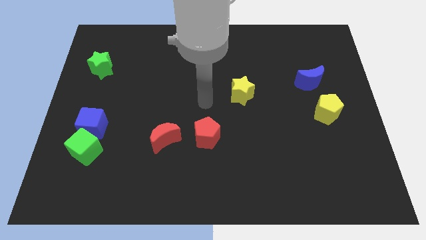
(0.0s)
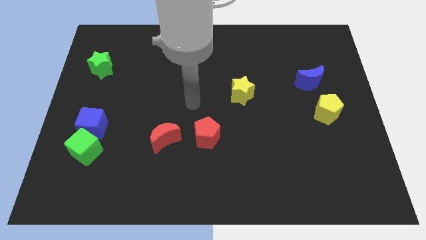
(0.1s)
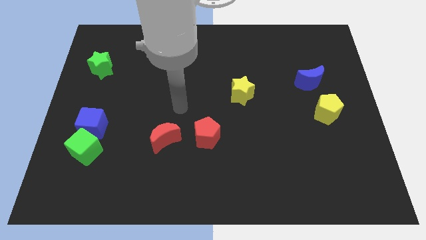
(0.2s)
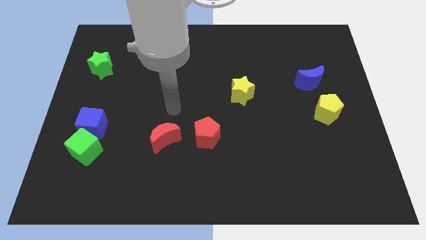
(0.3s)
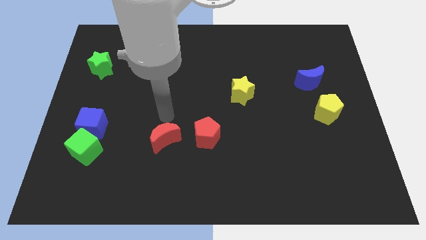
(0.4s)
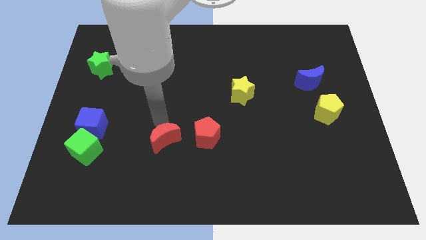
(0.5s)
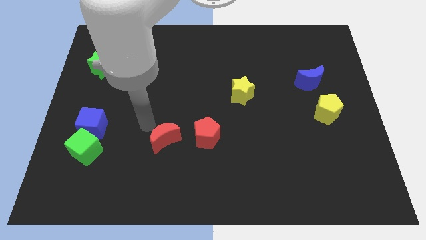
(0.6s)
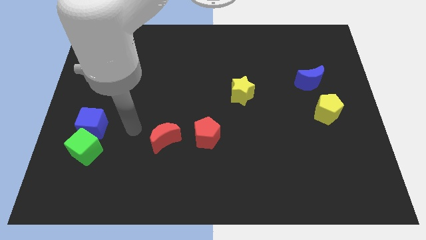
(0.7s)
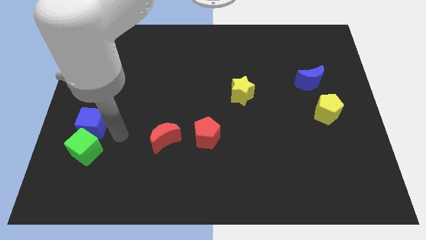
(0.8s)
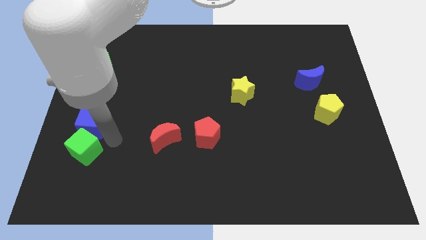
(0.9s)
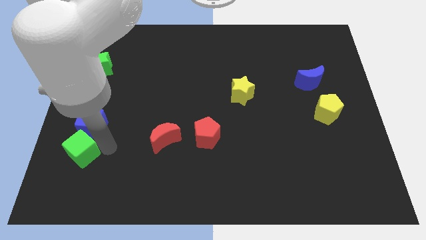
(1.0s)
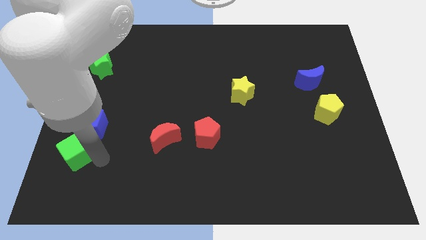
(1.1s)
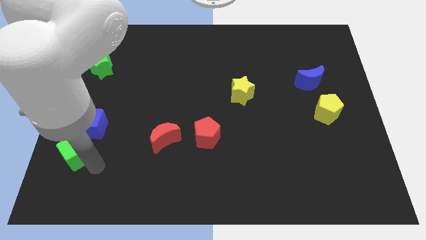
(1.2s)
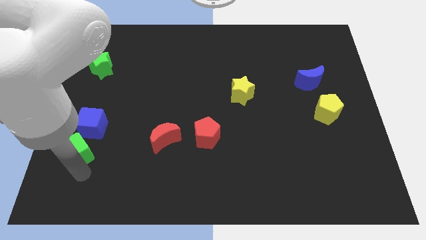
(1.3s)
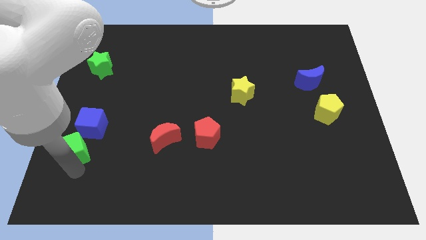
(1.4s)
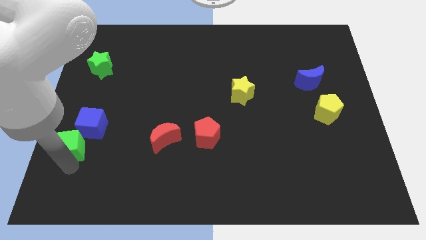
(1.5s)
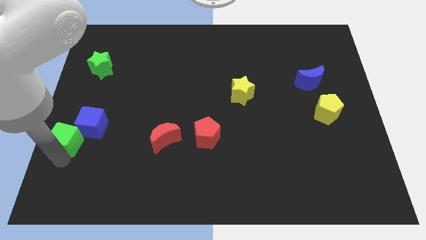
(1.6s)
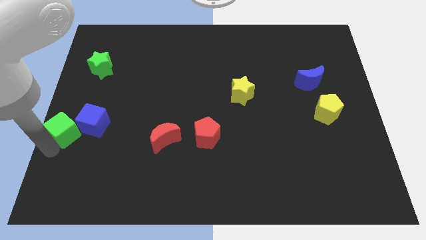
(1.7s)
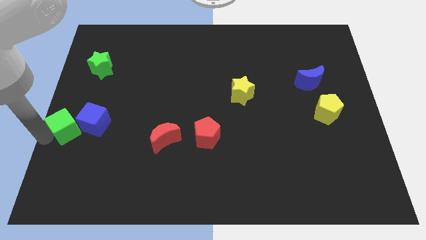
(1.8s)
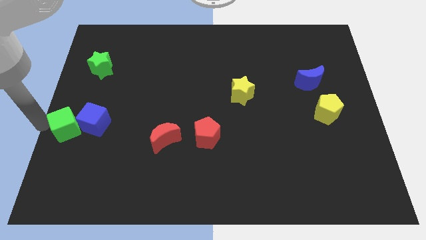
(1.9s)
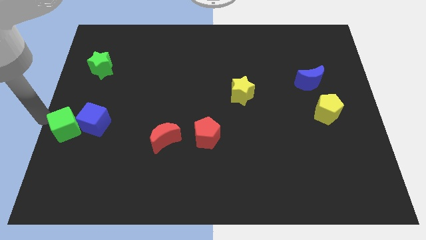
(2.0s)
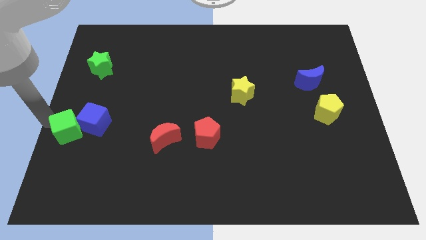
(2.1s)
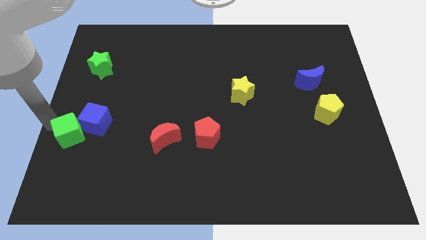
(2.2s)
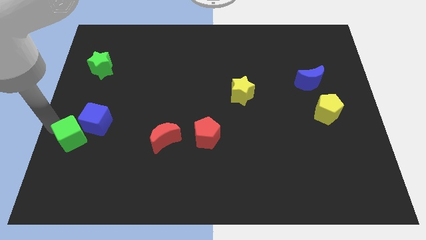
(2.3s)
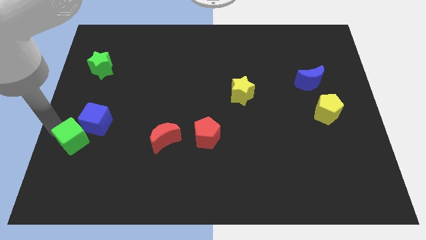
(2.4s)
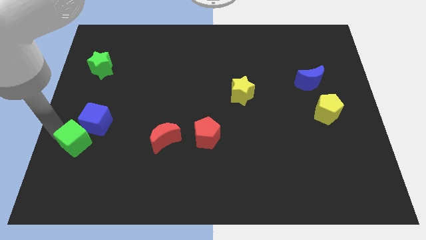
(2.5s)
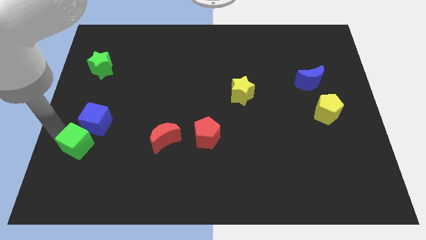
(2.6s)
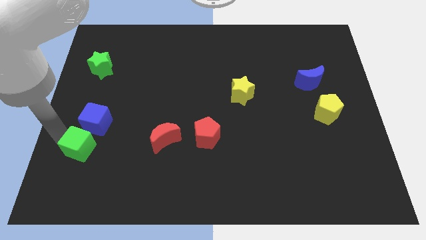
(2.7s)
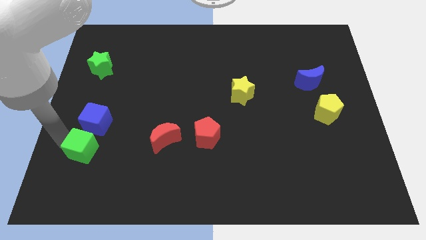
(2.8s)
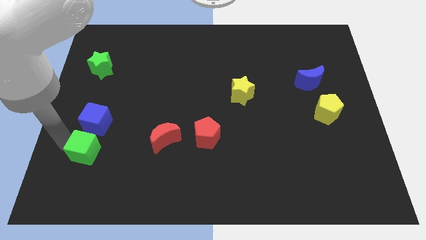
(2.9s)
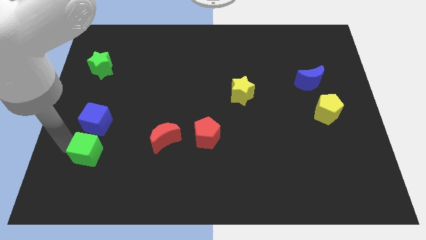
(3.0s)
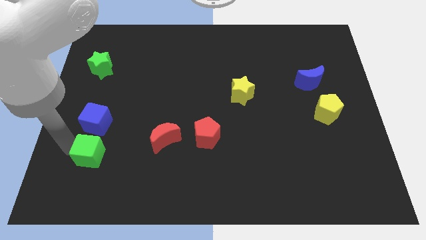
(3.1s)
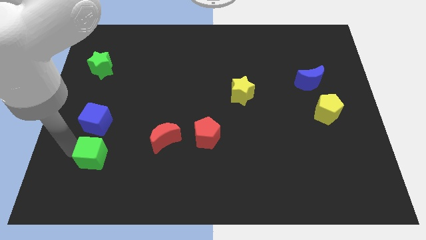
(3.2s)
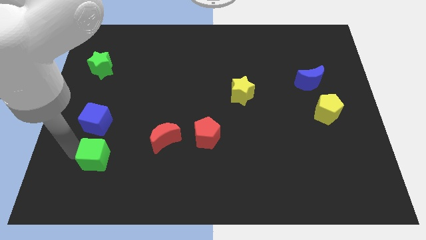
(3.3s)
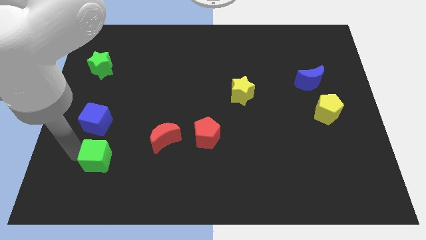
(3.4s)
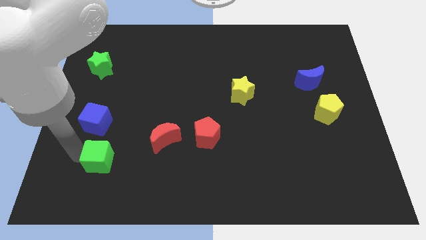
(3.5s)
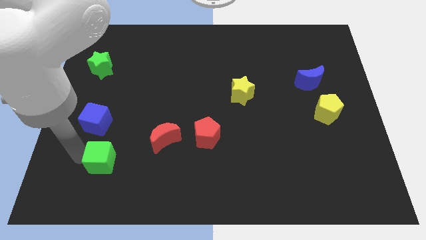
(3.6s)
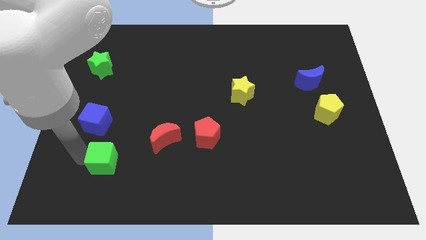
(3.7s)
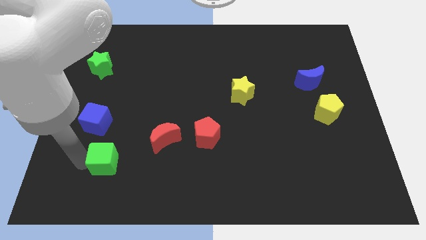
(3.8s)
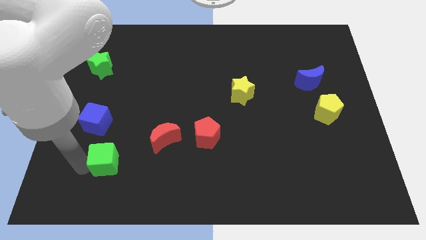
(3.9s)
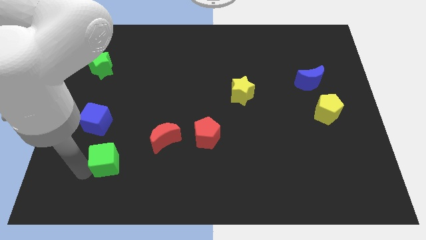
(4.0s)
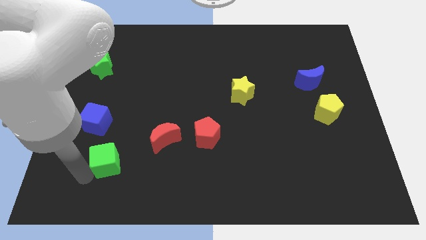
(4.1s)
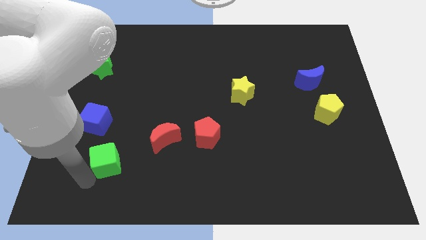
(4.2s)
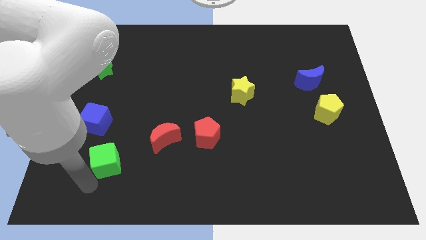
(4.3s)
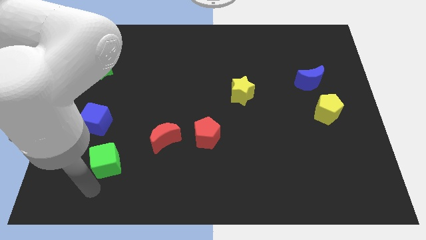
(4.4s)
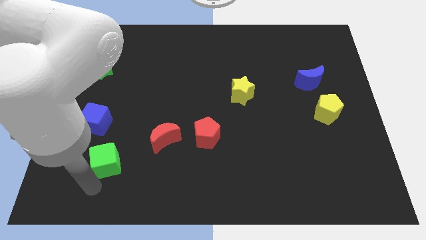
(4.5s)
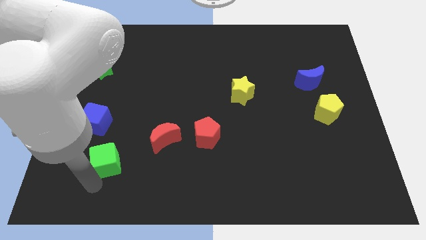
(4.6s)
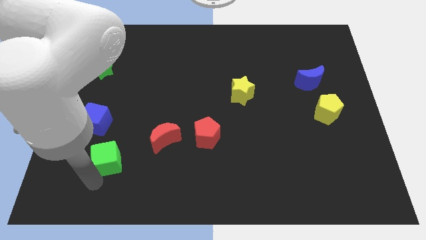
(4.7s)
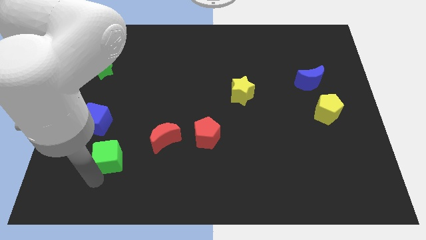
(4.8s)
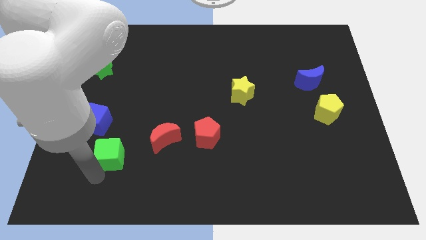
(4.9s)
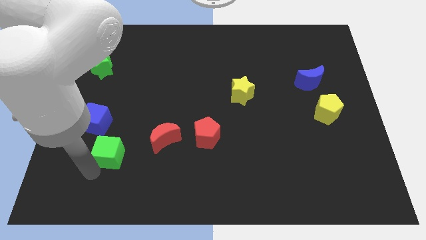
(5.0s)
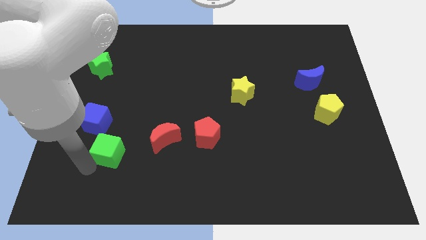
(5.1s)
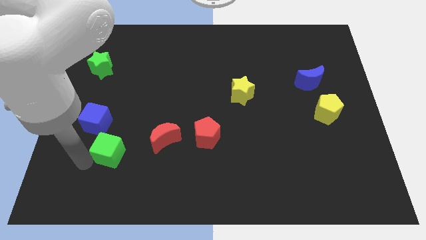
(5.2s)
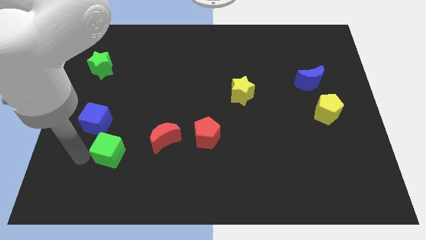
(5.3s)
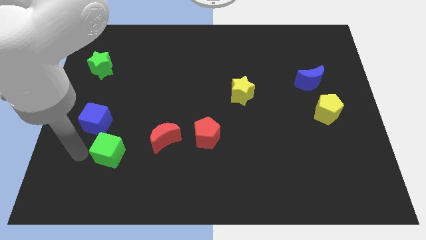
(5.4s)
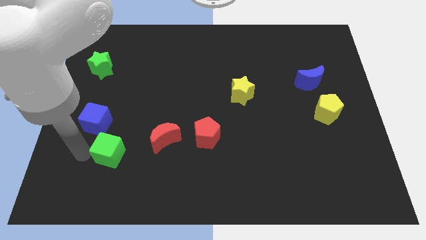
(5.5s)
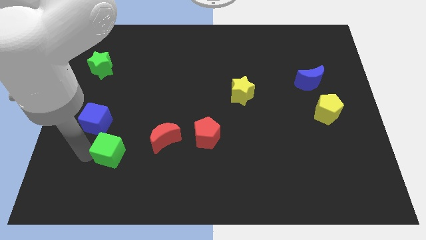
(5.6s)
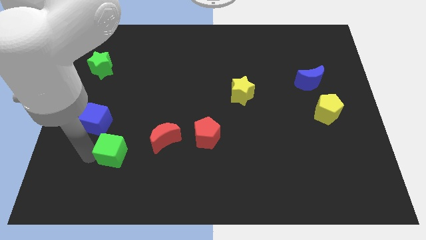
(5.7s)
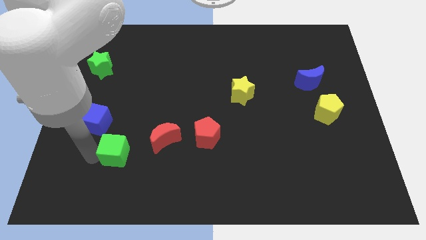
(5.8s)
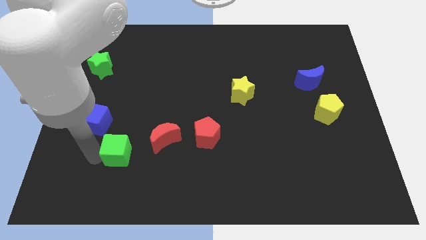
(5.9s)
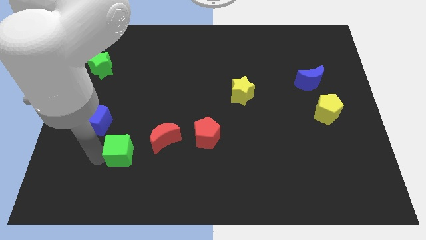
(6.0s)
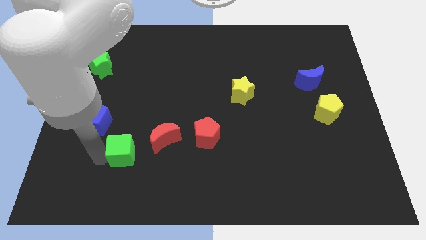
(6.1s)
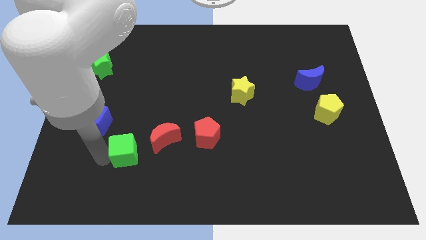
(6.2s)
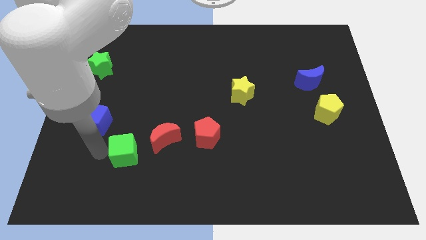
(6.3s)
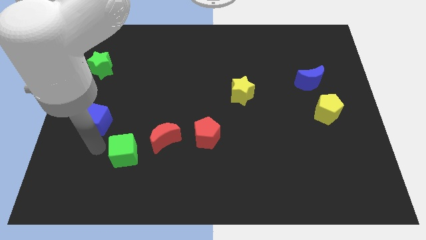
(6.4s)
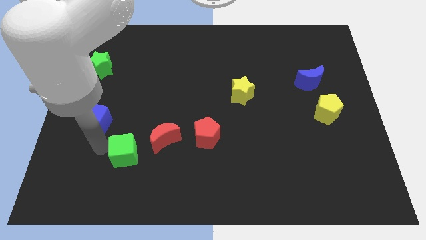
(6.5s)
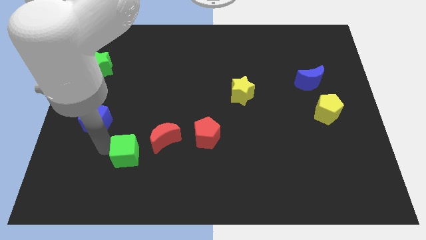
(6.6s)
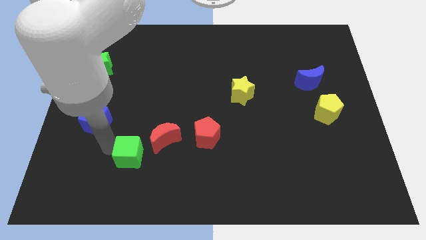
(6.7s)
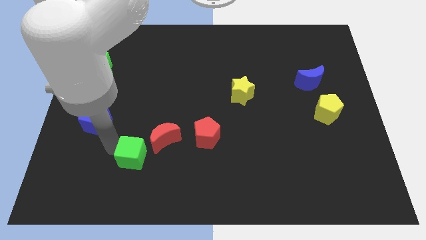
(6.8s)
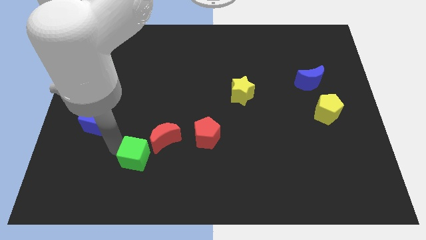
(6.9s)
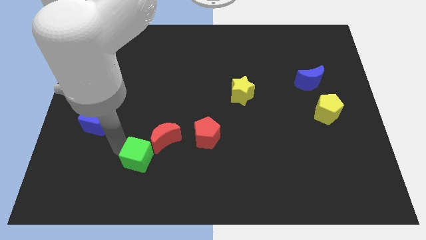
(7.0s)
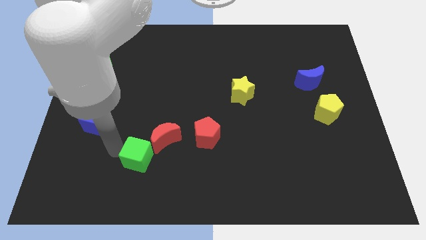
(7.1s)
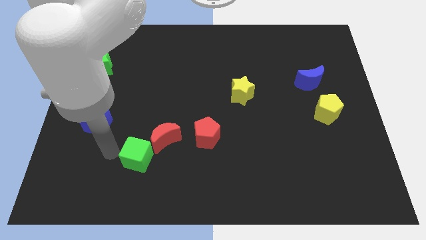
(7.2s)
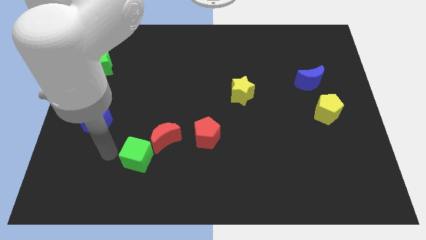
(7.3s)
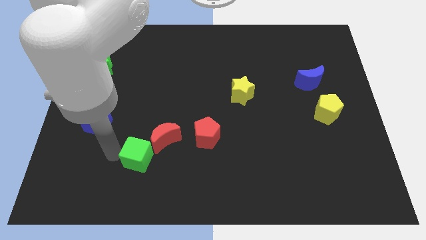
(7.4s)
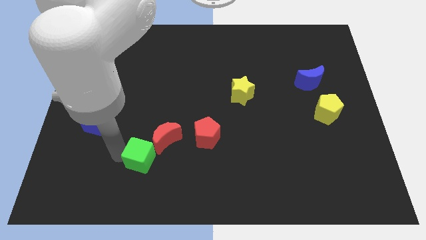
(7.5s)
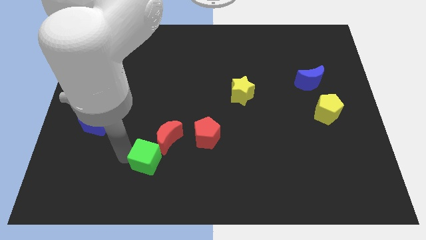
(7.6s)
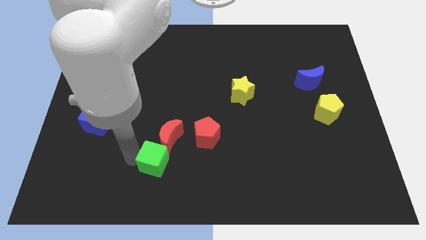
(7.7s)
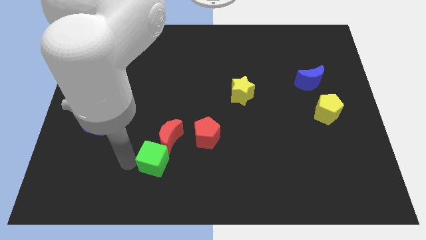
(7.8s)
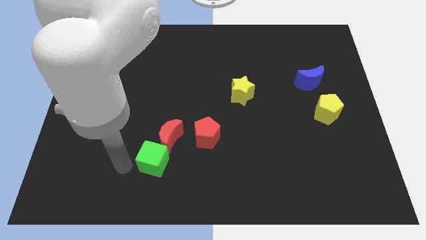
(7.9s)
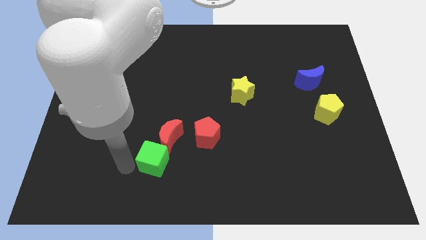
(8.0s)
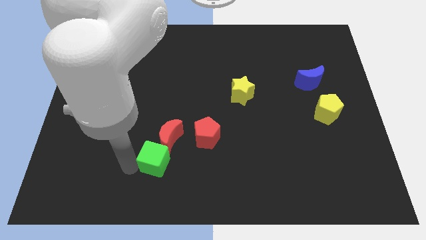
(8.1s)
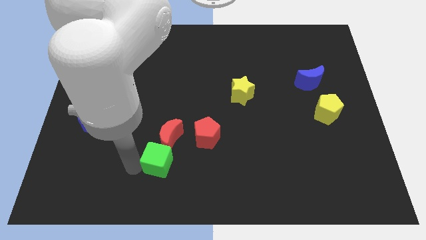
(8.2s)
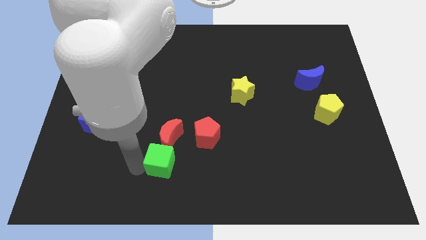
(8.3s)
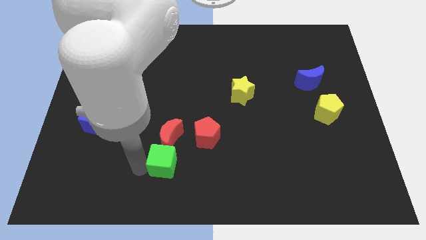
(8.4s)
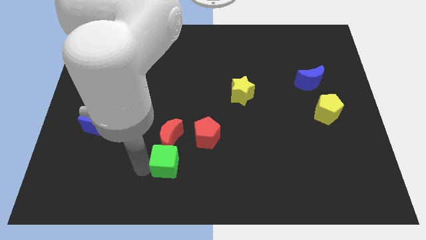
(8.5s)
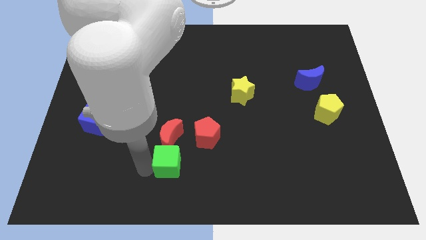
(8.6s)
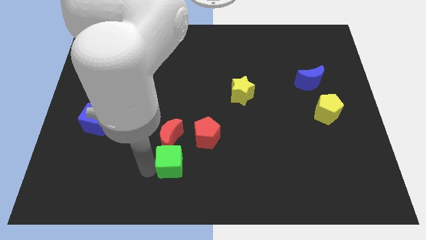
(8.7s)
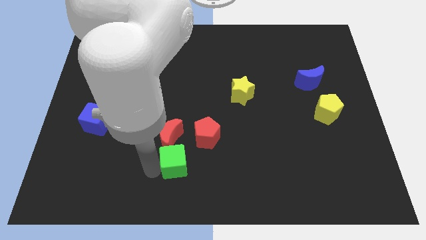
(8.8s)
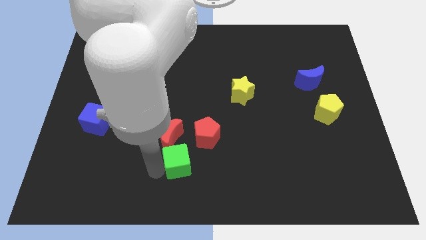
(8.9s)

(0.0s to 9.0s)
push the green cube right
